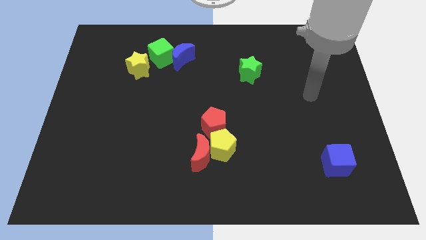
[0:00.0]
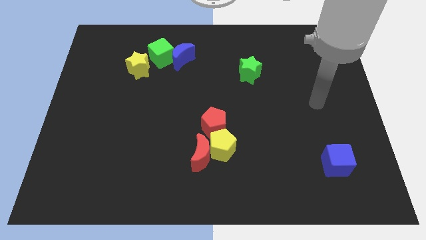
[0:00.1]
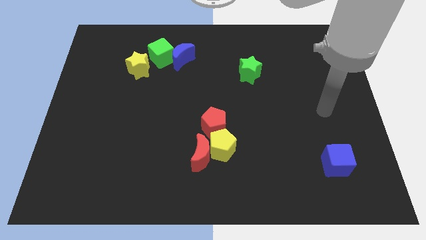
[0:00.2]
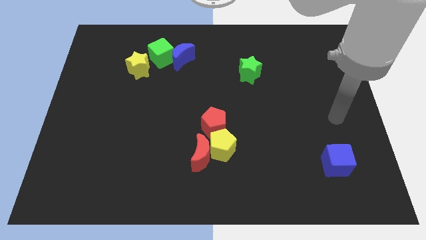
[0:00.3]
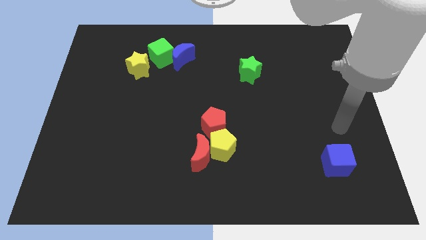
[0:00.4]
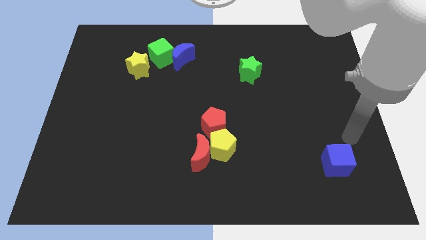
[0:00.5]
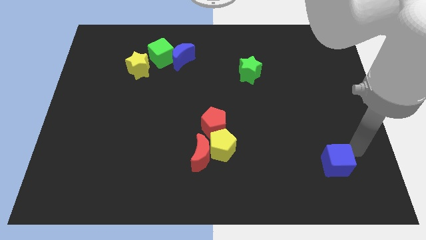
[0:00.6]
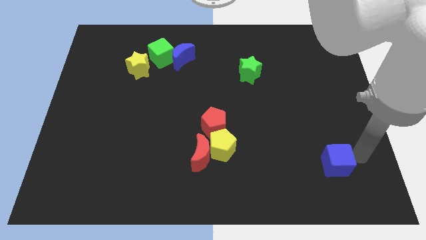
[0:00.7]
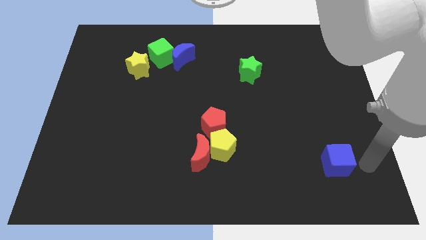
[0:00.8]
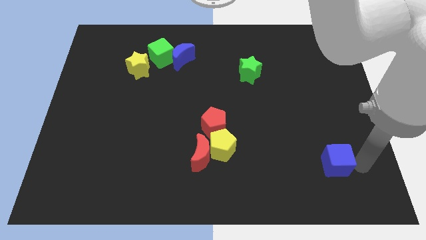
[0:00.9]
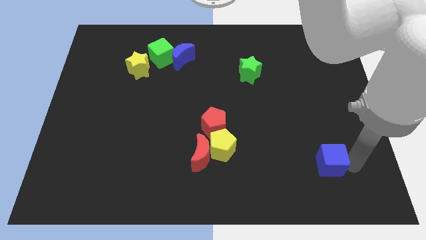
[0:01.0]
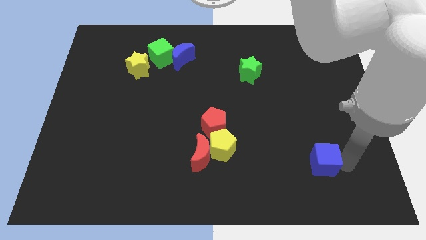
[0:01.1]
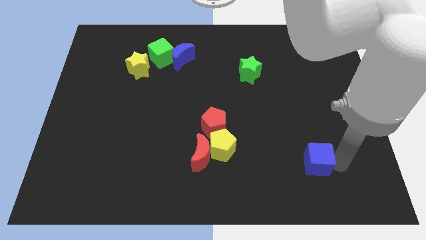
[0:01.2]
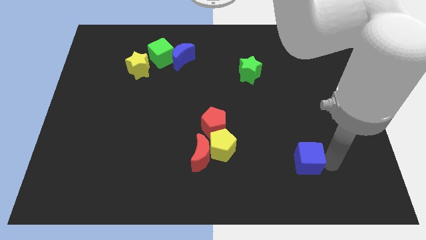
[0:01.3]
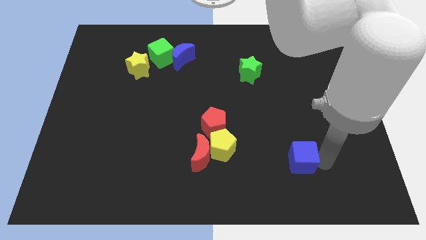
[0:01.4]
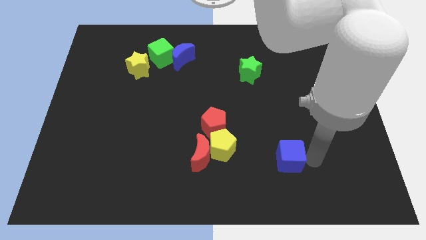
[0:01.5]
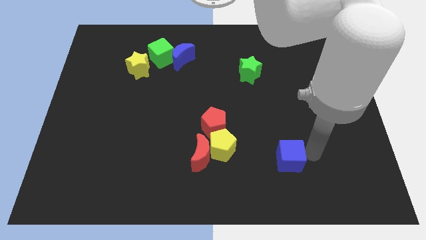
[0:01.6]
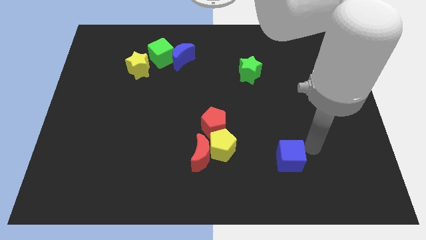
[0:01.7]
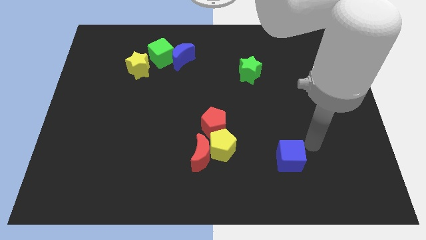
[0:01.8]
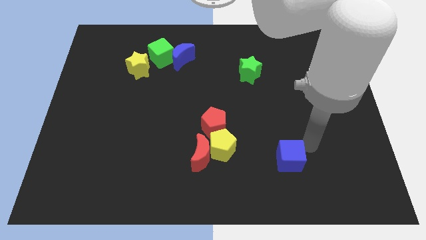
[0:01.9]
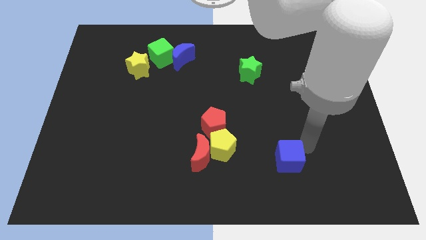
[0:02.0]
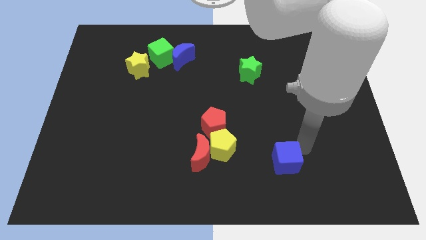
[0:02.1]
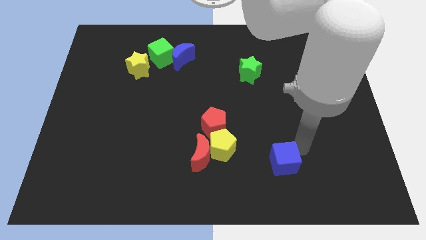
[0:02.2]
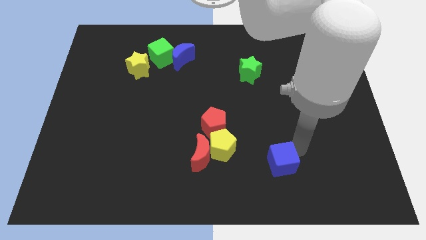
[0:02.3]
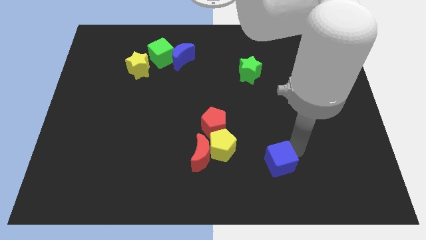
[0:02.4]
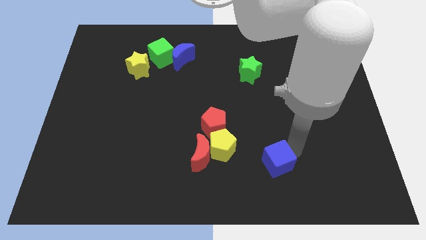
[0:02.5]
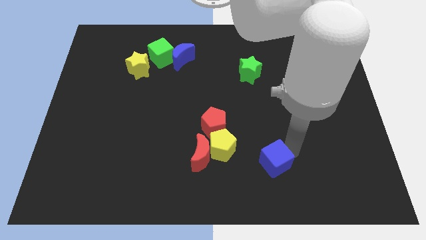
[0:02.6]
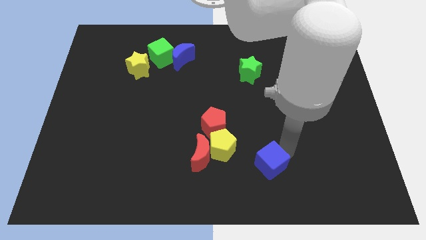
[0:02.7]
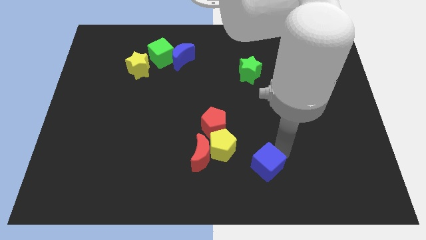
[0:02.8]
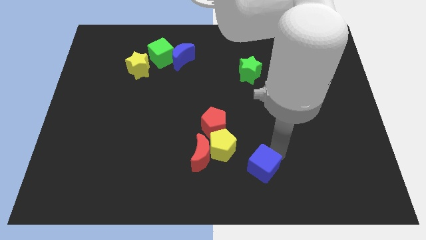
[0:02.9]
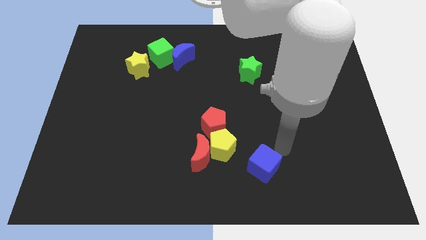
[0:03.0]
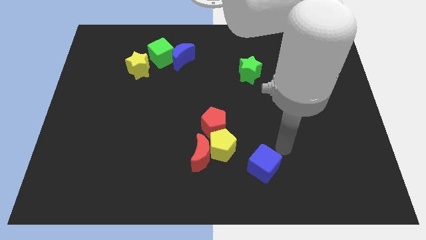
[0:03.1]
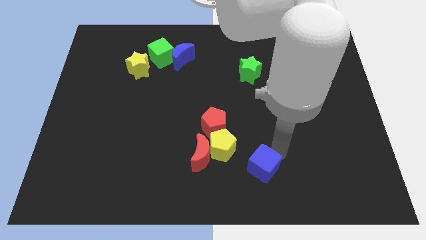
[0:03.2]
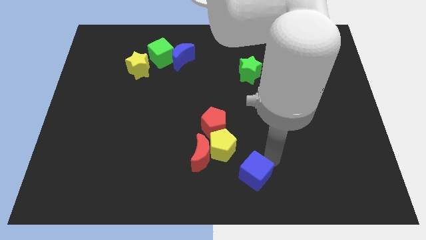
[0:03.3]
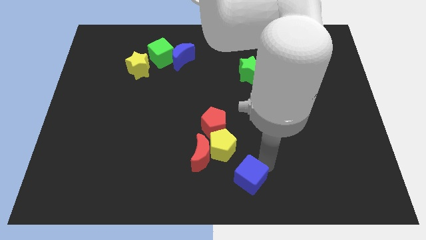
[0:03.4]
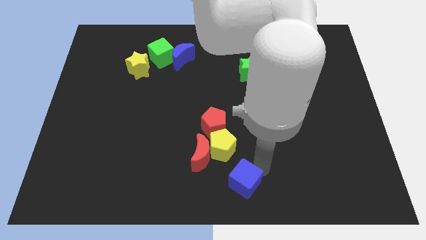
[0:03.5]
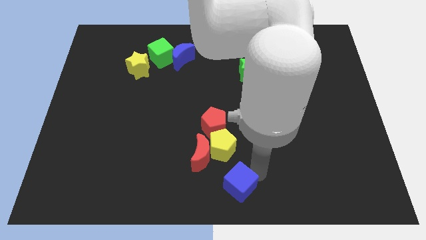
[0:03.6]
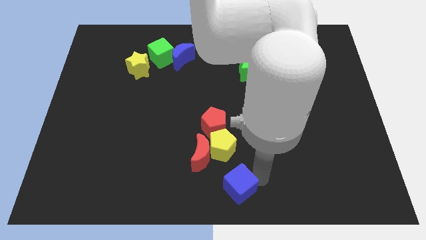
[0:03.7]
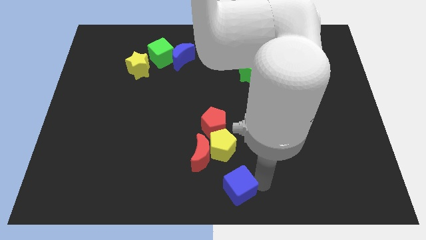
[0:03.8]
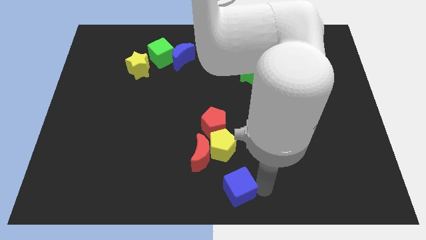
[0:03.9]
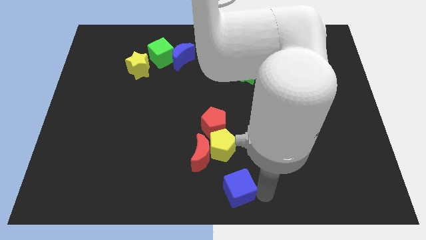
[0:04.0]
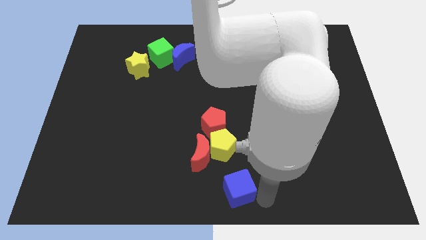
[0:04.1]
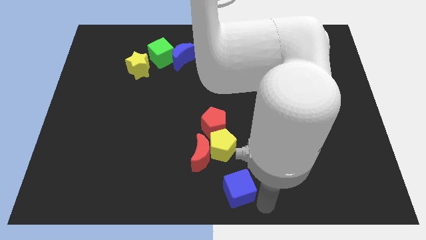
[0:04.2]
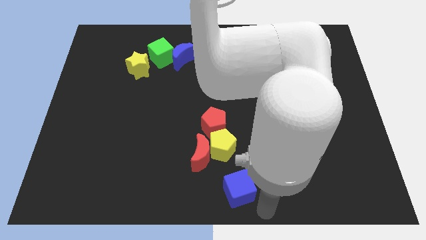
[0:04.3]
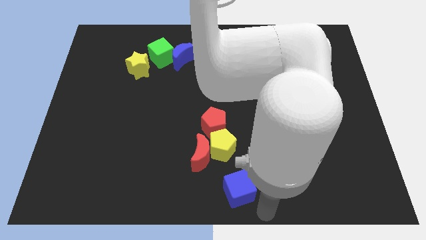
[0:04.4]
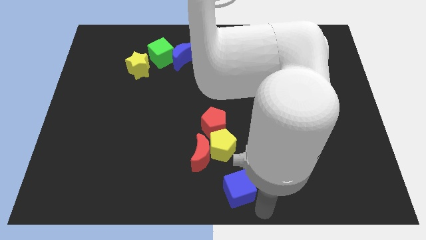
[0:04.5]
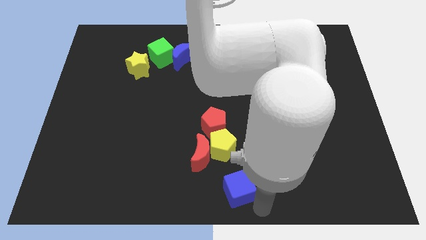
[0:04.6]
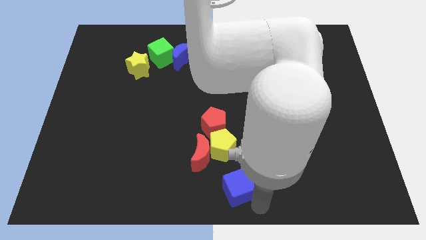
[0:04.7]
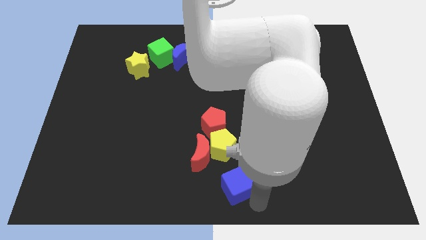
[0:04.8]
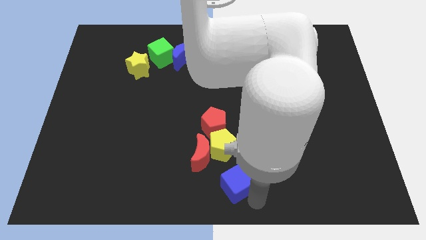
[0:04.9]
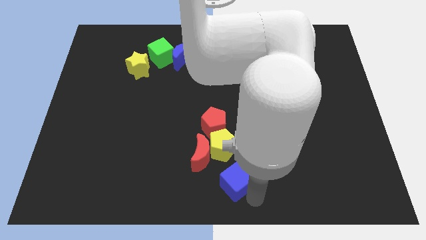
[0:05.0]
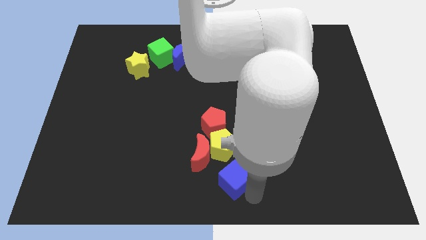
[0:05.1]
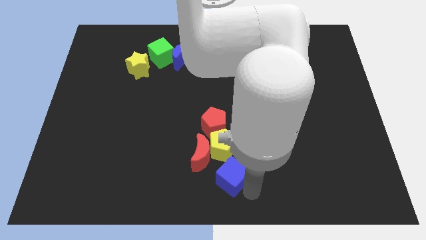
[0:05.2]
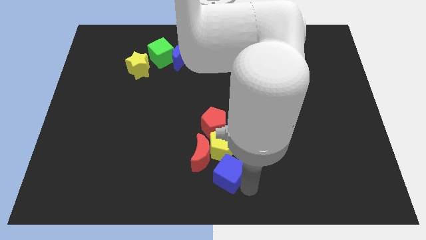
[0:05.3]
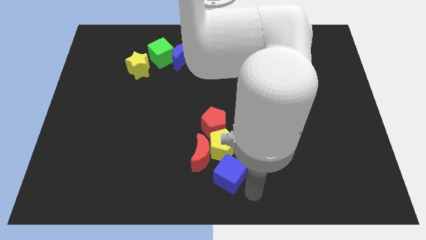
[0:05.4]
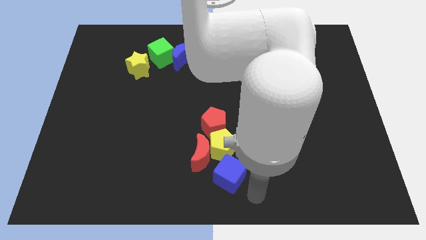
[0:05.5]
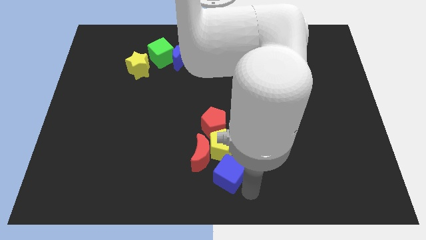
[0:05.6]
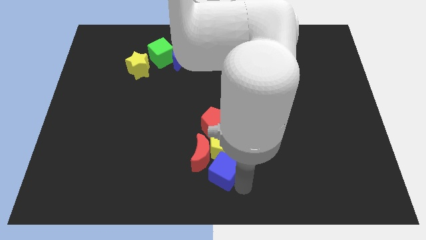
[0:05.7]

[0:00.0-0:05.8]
slide the blue cube to the red moon

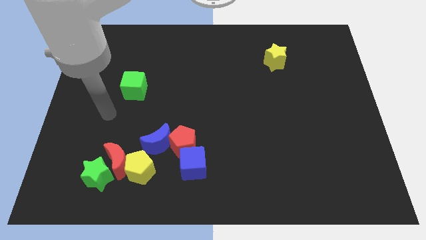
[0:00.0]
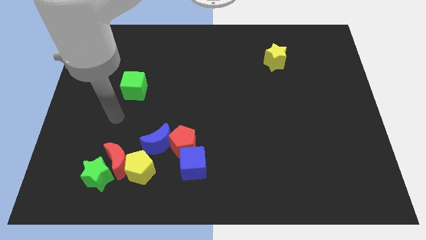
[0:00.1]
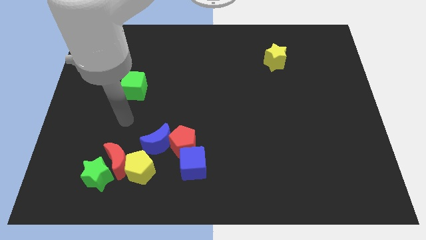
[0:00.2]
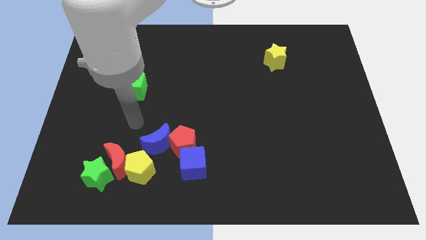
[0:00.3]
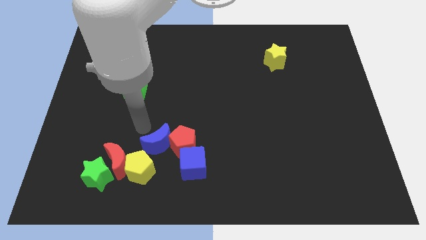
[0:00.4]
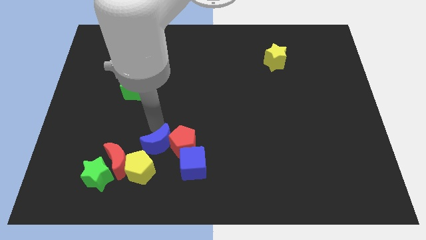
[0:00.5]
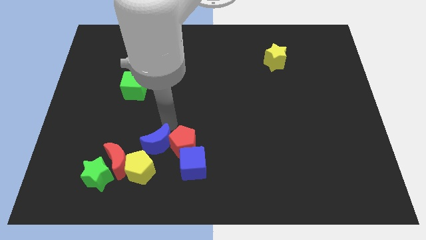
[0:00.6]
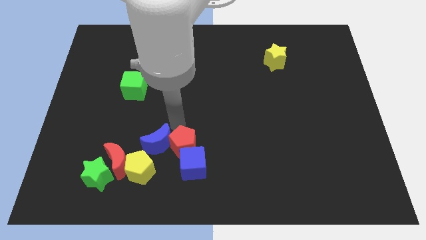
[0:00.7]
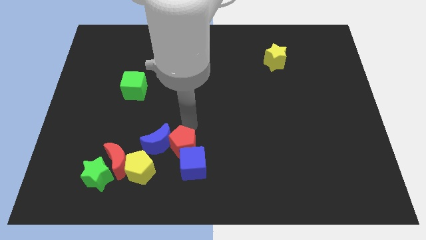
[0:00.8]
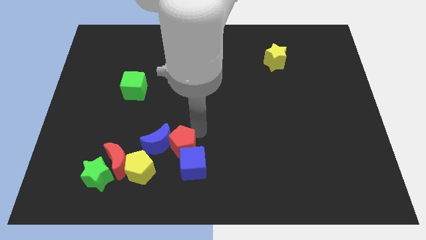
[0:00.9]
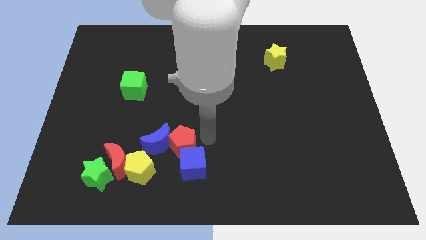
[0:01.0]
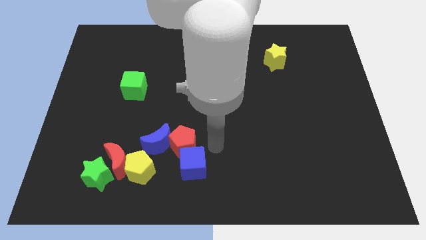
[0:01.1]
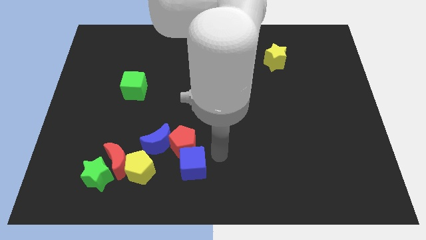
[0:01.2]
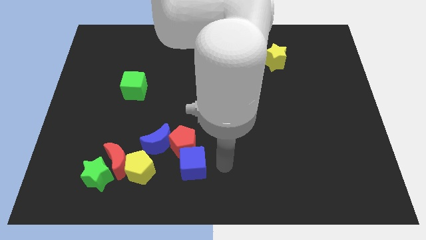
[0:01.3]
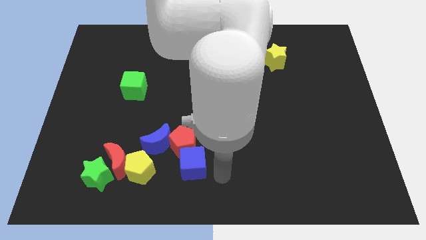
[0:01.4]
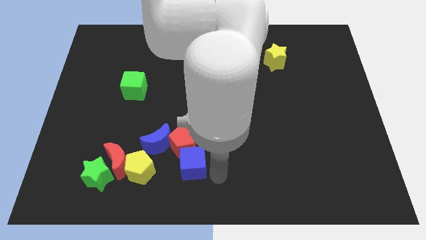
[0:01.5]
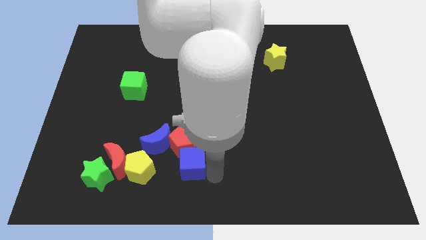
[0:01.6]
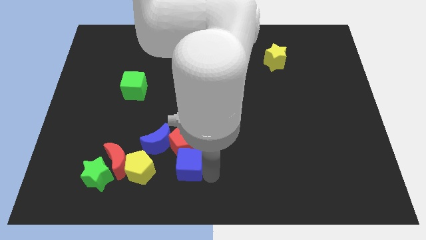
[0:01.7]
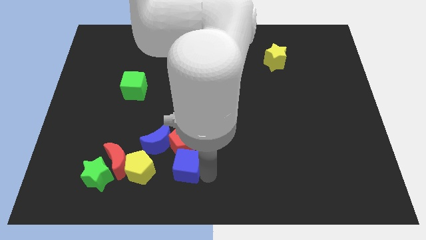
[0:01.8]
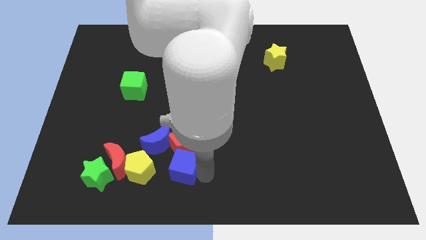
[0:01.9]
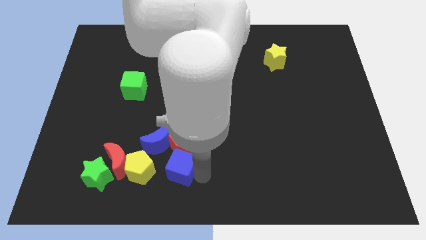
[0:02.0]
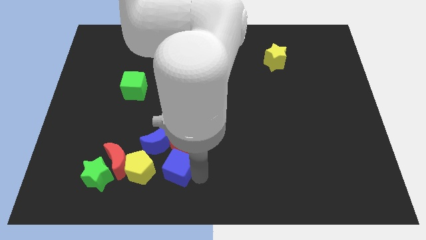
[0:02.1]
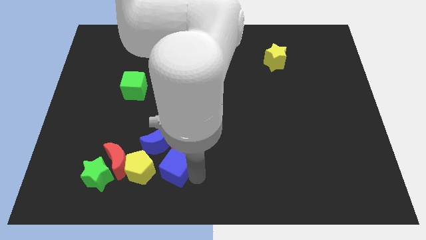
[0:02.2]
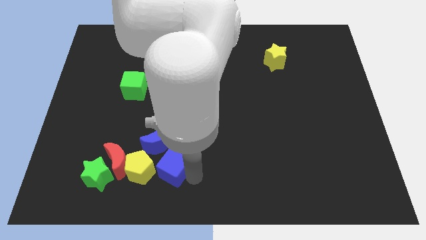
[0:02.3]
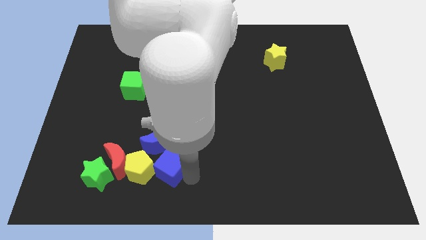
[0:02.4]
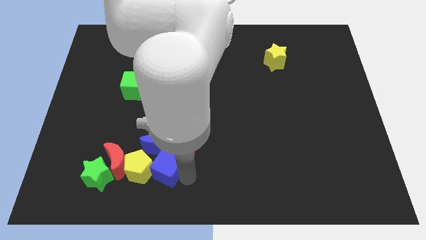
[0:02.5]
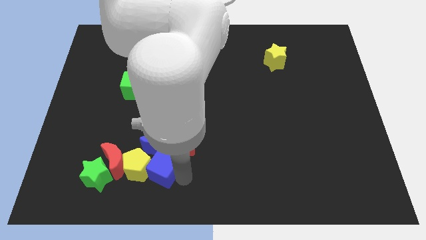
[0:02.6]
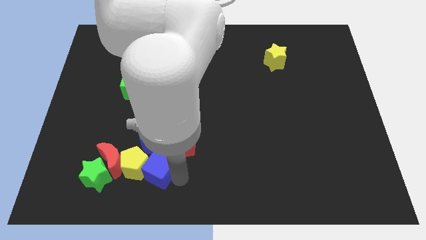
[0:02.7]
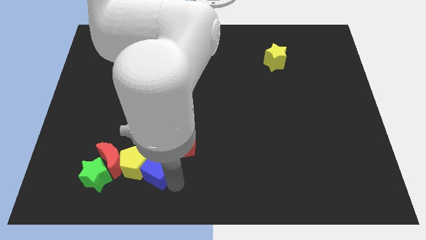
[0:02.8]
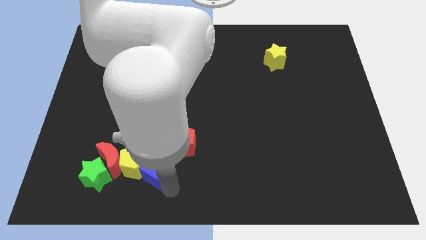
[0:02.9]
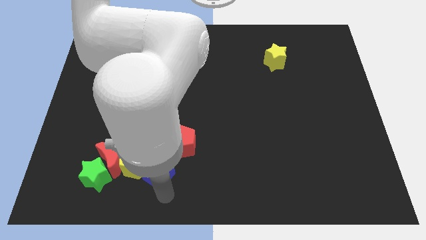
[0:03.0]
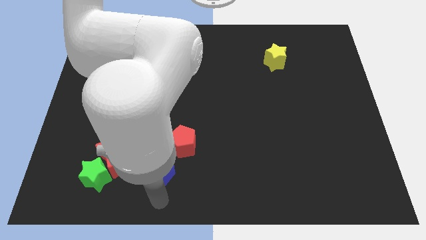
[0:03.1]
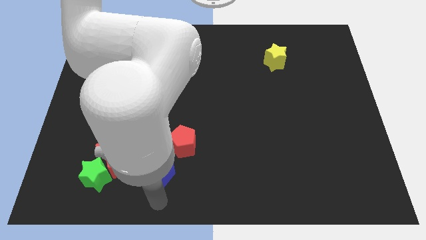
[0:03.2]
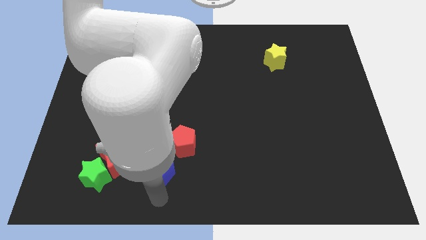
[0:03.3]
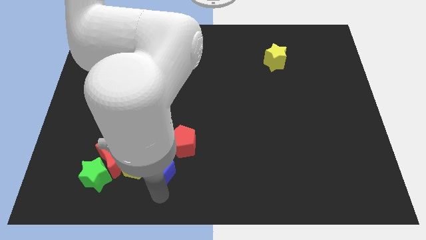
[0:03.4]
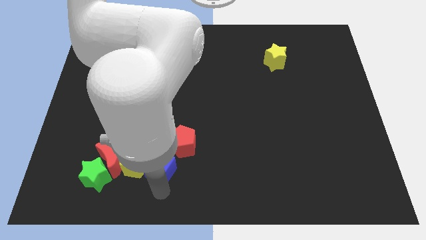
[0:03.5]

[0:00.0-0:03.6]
move the blue cube to the blue moon
